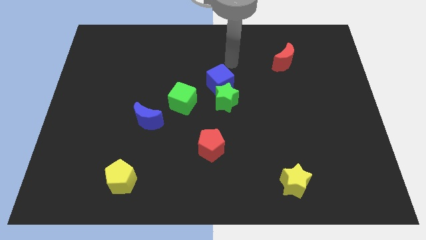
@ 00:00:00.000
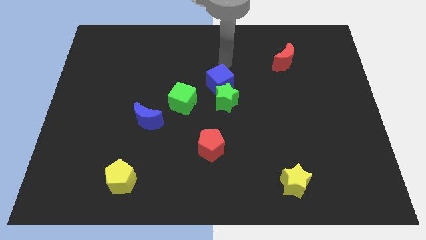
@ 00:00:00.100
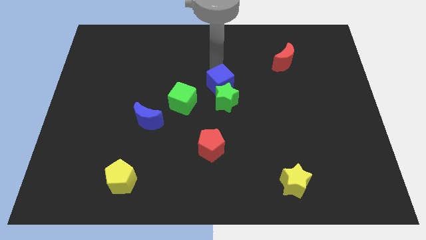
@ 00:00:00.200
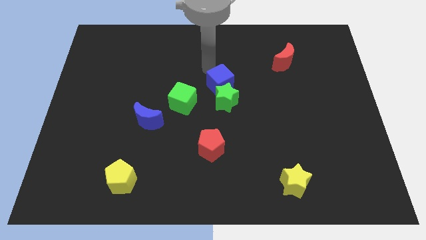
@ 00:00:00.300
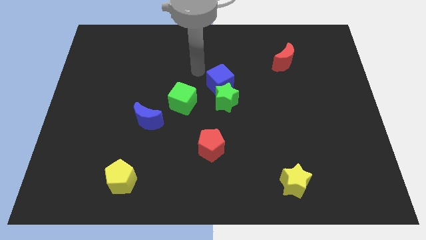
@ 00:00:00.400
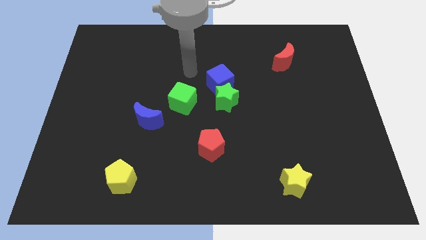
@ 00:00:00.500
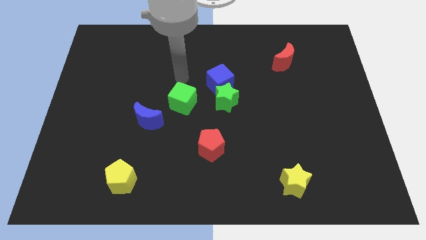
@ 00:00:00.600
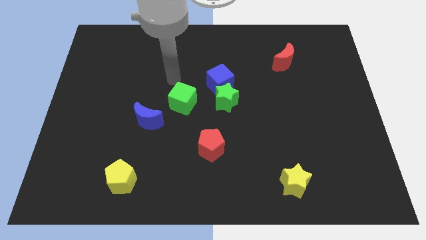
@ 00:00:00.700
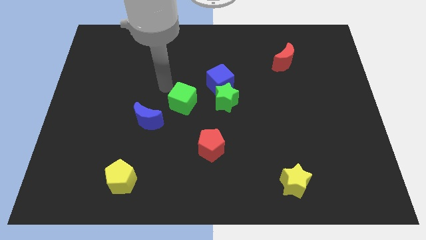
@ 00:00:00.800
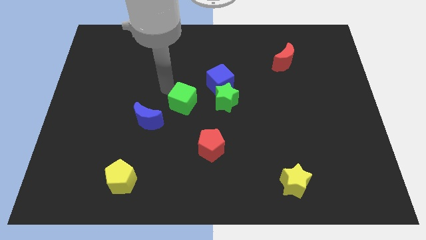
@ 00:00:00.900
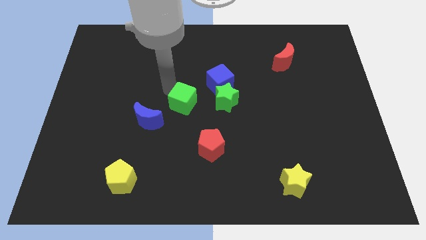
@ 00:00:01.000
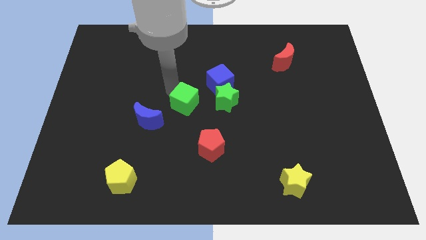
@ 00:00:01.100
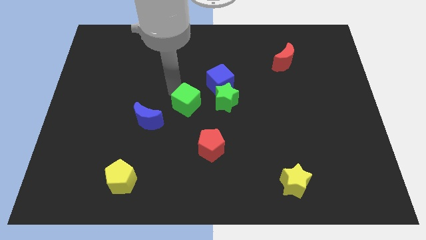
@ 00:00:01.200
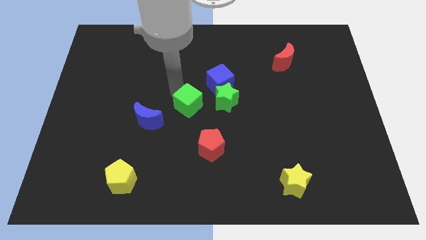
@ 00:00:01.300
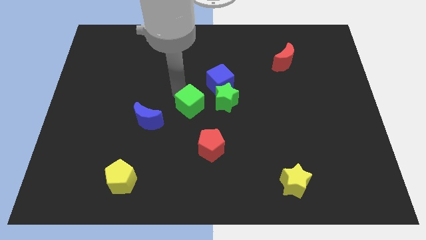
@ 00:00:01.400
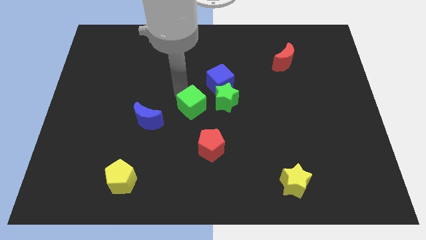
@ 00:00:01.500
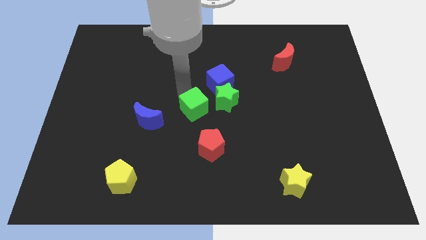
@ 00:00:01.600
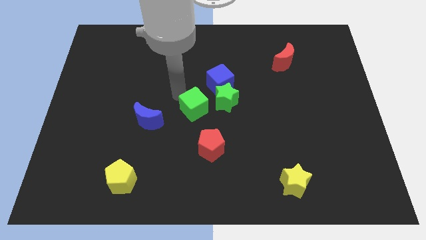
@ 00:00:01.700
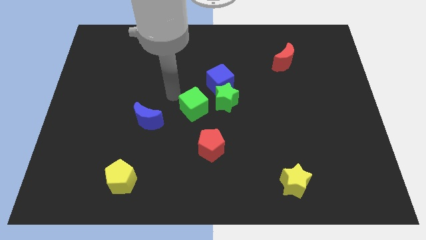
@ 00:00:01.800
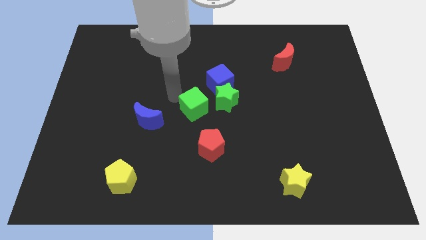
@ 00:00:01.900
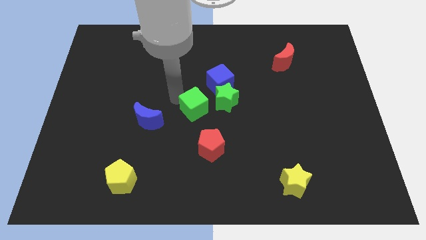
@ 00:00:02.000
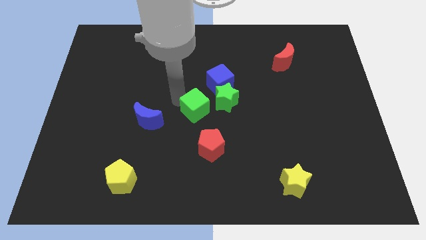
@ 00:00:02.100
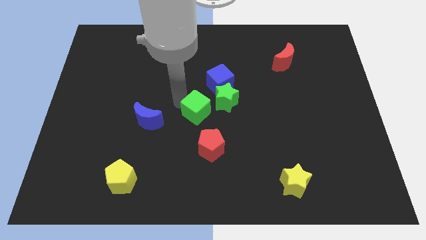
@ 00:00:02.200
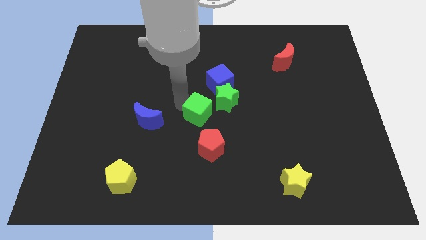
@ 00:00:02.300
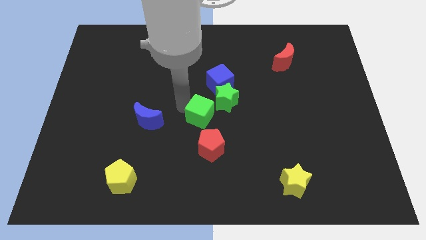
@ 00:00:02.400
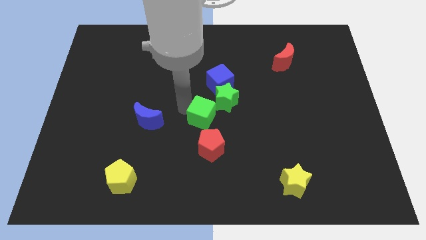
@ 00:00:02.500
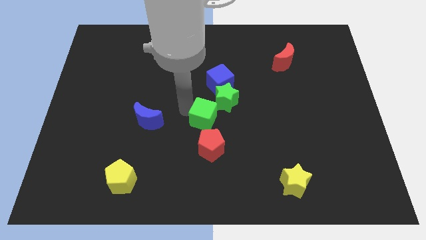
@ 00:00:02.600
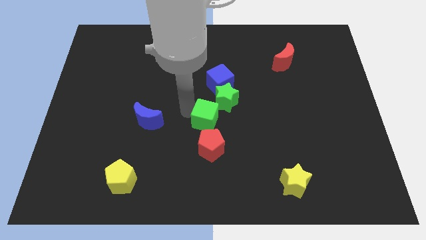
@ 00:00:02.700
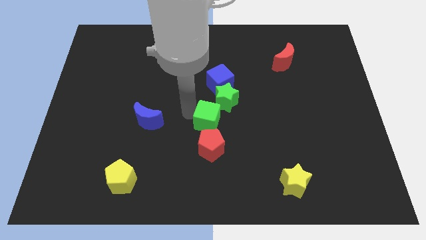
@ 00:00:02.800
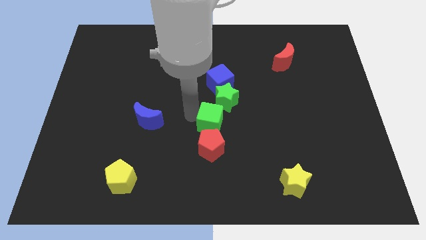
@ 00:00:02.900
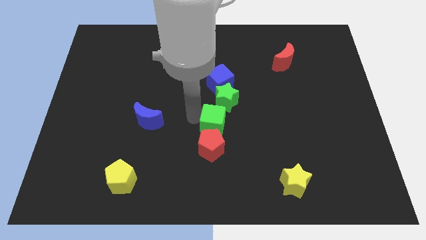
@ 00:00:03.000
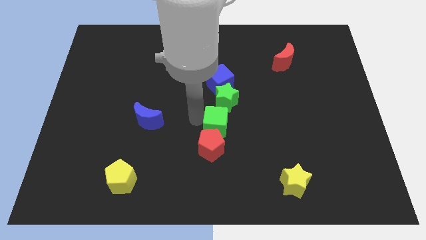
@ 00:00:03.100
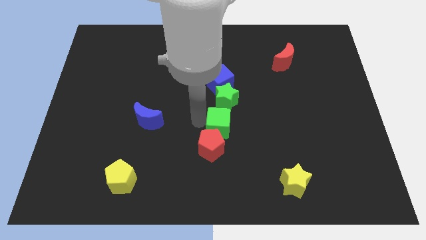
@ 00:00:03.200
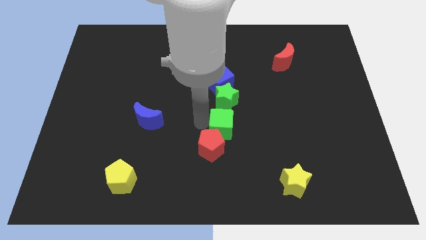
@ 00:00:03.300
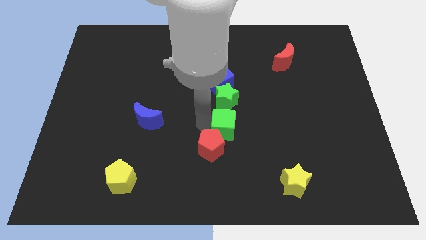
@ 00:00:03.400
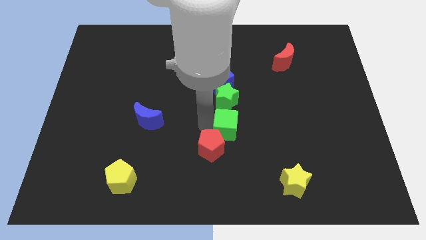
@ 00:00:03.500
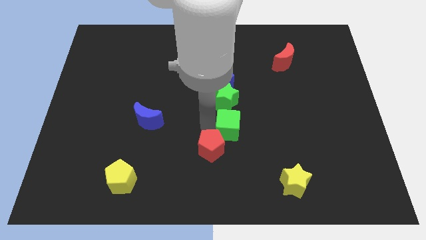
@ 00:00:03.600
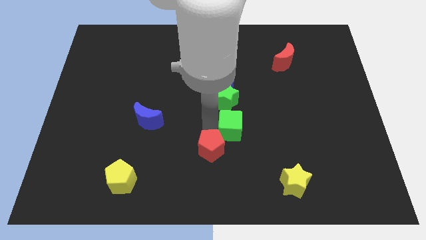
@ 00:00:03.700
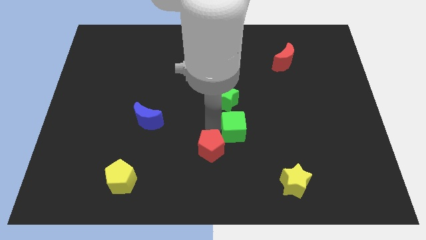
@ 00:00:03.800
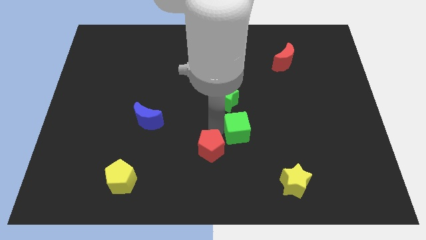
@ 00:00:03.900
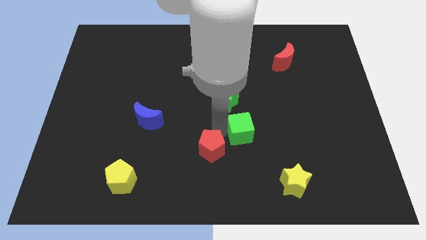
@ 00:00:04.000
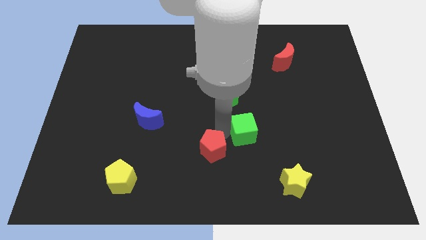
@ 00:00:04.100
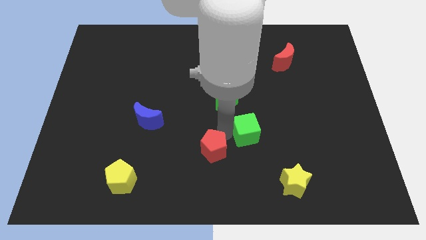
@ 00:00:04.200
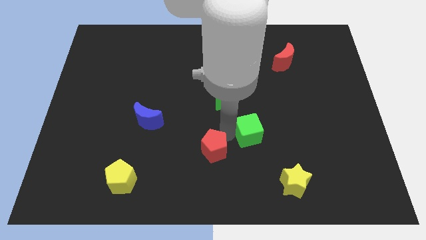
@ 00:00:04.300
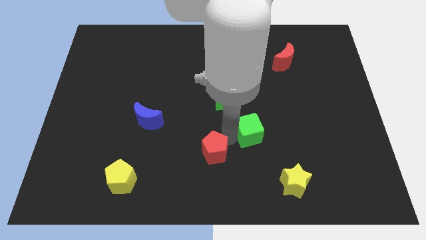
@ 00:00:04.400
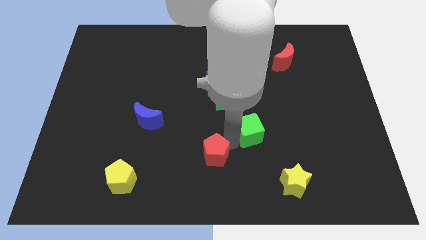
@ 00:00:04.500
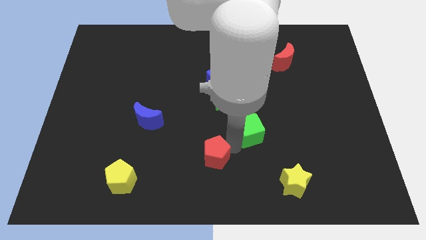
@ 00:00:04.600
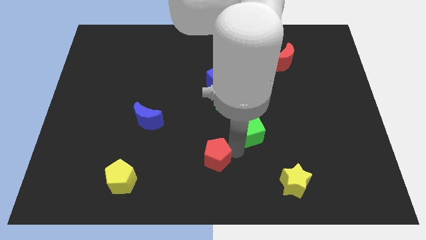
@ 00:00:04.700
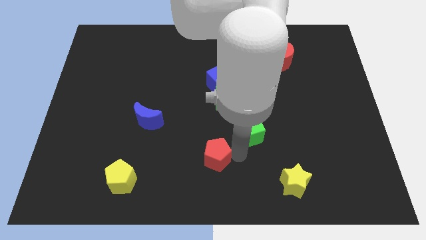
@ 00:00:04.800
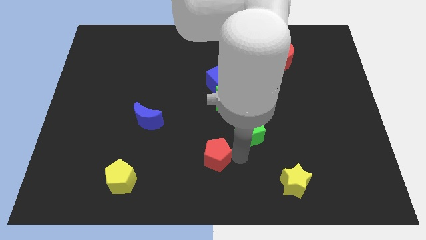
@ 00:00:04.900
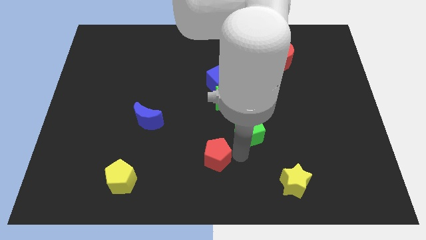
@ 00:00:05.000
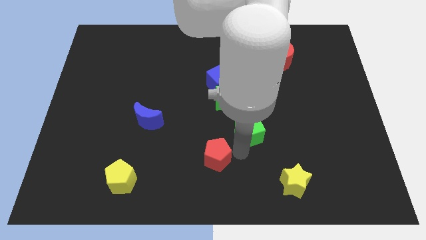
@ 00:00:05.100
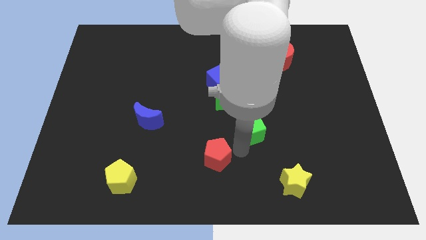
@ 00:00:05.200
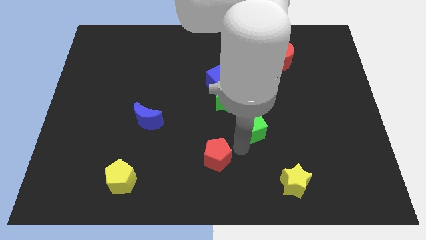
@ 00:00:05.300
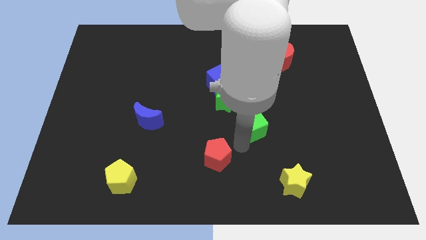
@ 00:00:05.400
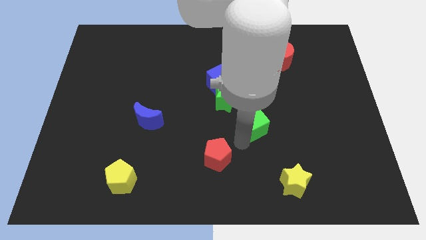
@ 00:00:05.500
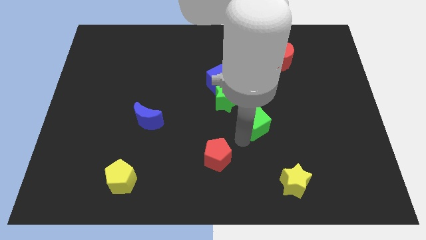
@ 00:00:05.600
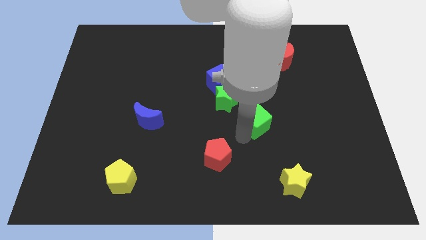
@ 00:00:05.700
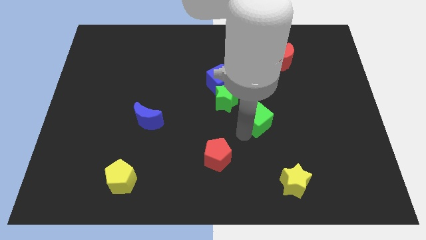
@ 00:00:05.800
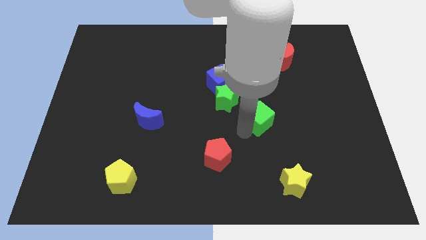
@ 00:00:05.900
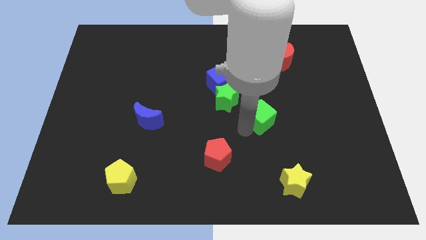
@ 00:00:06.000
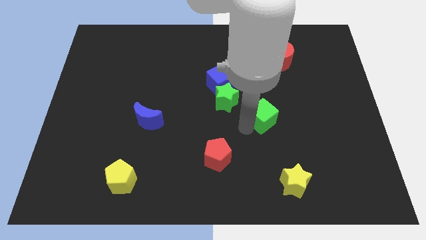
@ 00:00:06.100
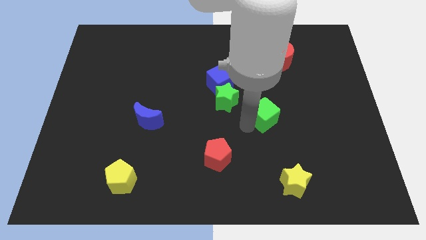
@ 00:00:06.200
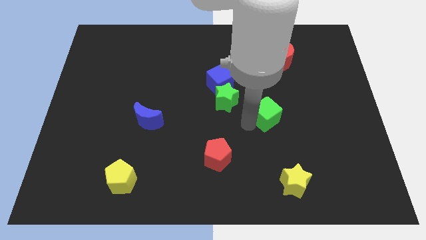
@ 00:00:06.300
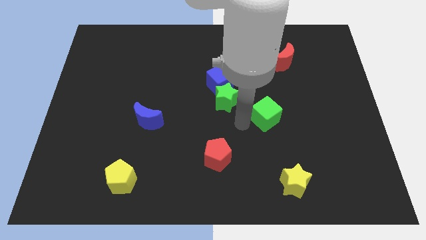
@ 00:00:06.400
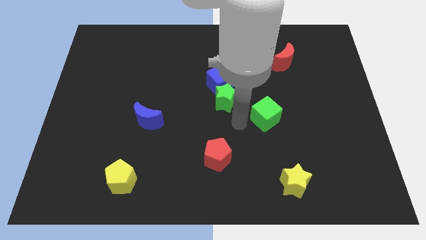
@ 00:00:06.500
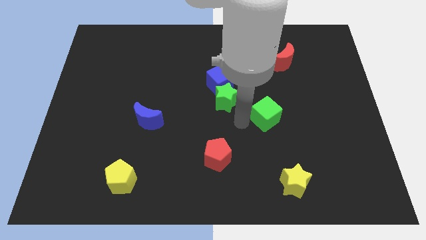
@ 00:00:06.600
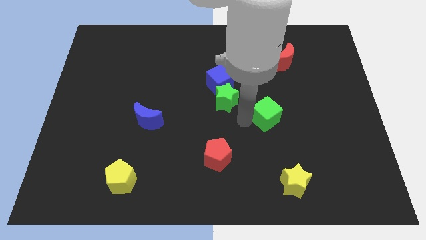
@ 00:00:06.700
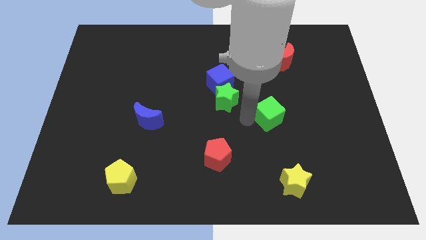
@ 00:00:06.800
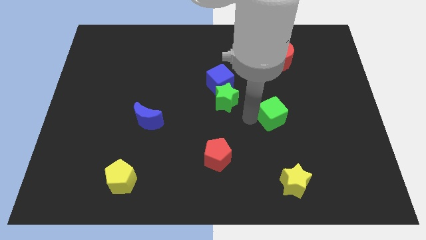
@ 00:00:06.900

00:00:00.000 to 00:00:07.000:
move the green cube right

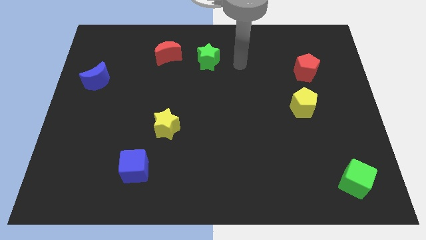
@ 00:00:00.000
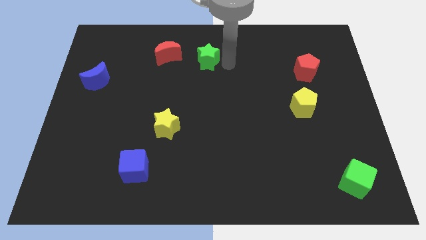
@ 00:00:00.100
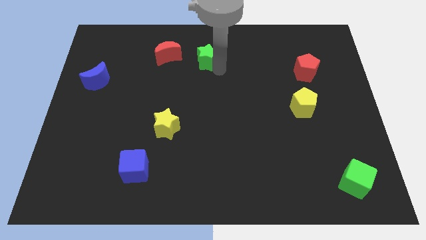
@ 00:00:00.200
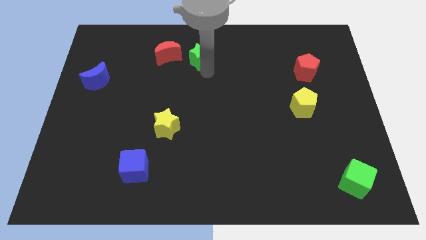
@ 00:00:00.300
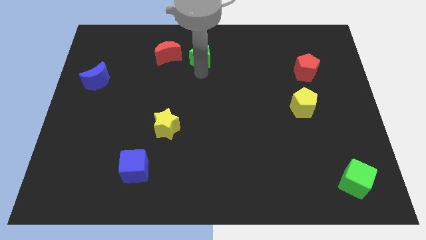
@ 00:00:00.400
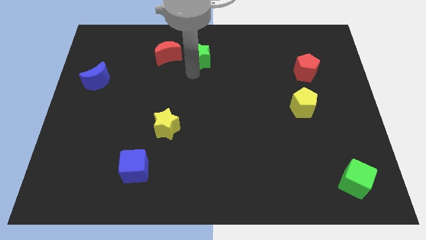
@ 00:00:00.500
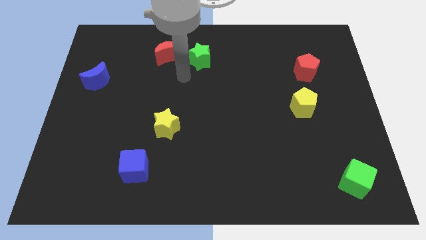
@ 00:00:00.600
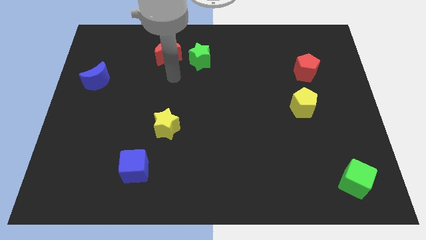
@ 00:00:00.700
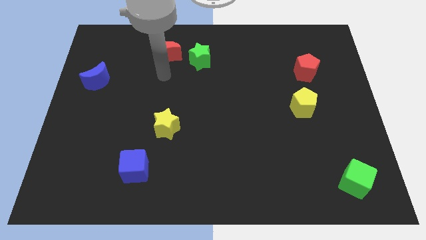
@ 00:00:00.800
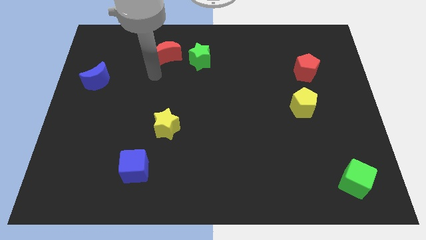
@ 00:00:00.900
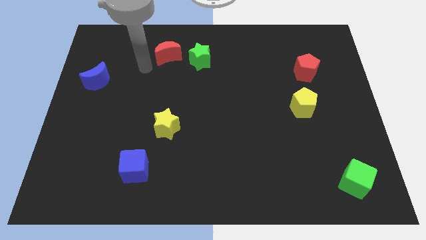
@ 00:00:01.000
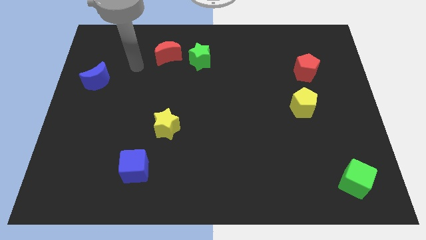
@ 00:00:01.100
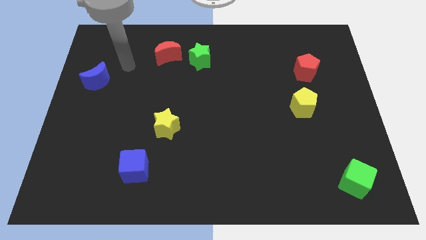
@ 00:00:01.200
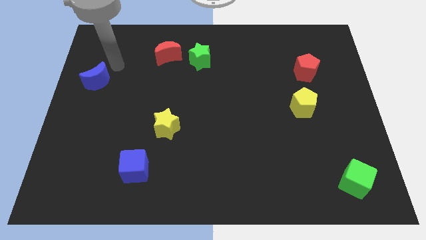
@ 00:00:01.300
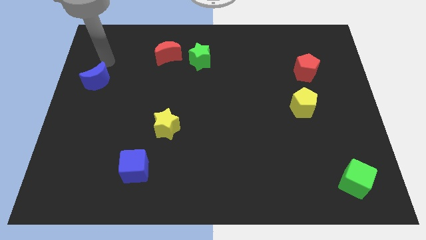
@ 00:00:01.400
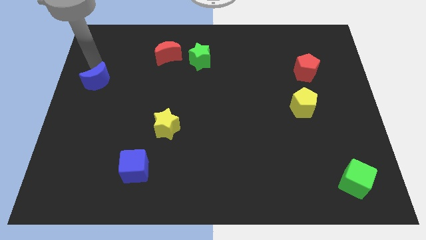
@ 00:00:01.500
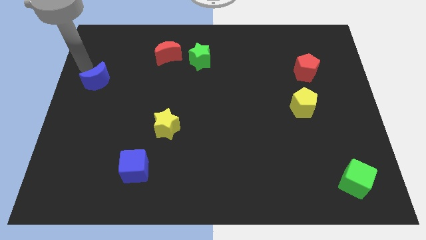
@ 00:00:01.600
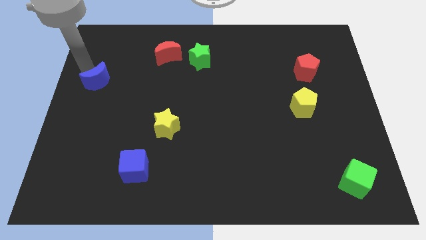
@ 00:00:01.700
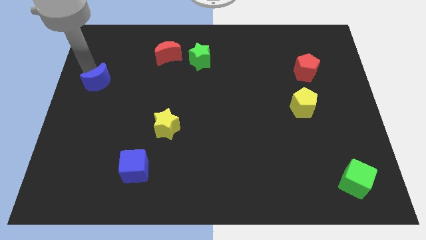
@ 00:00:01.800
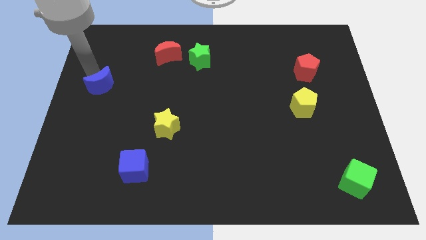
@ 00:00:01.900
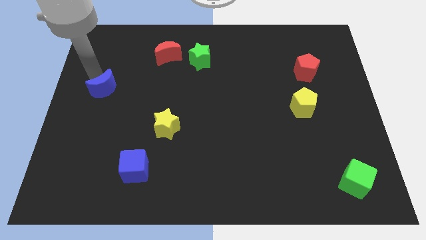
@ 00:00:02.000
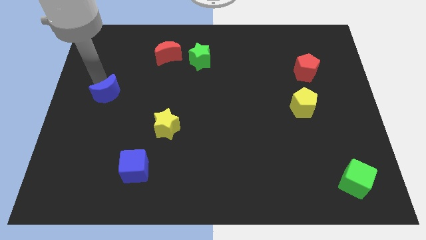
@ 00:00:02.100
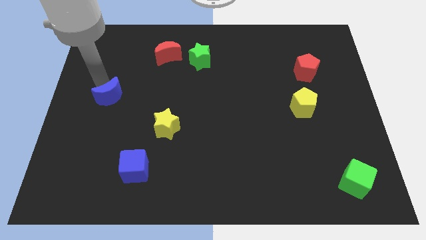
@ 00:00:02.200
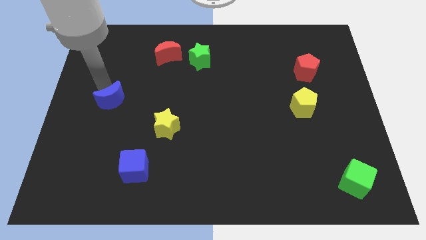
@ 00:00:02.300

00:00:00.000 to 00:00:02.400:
push the blue moon slightly down and to the right
